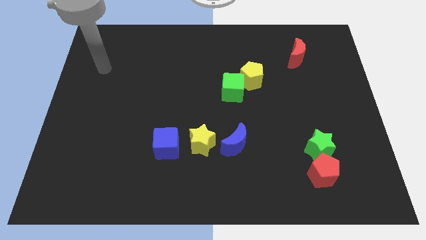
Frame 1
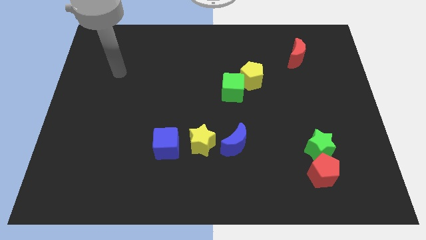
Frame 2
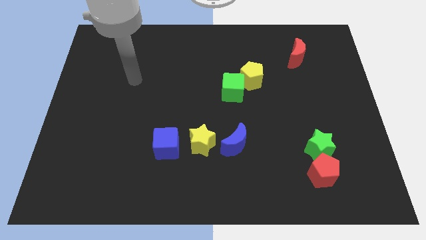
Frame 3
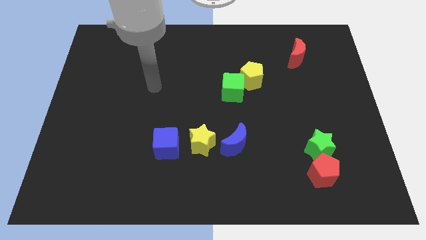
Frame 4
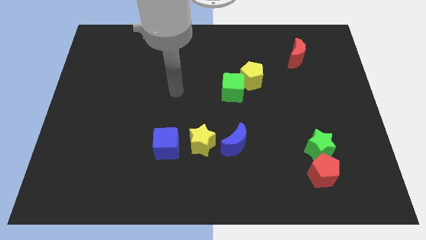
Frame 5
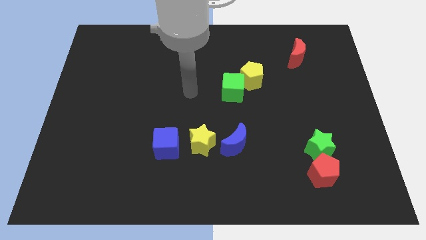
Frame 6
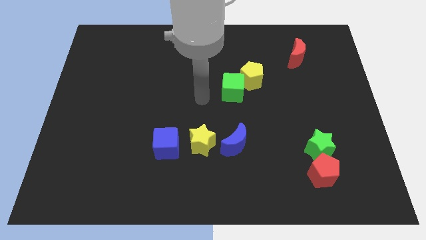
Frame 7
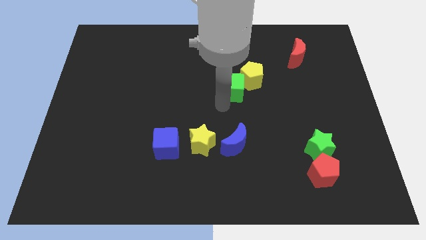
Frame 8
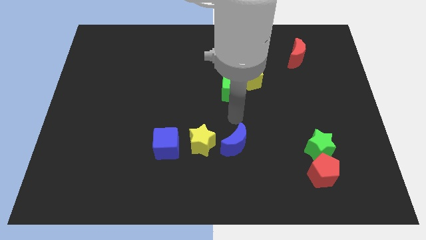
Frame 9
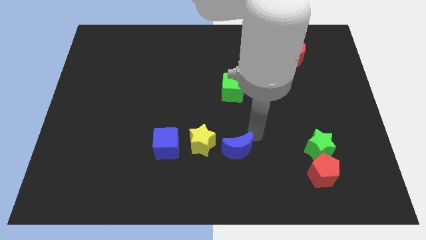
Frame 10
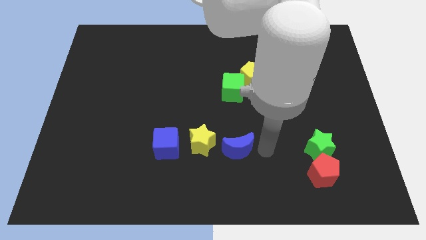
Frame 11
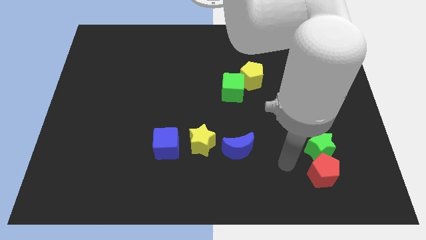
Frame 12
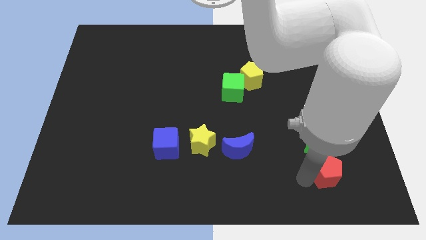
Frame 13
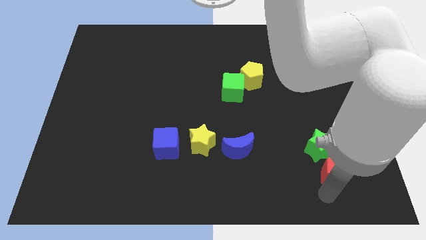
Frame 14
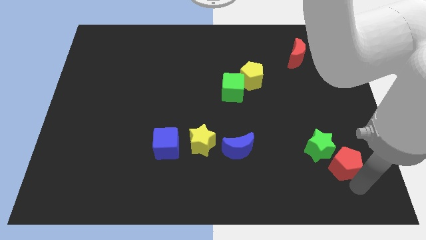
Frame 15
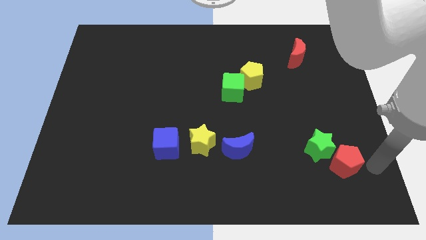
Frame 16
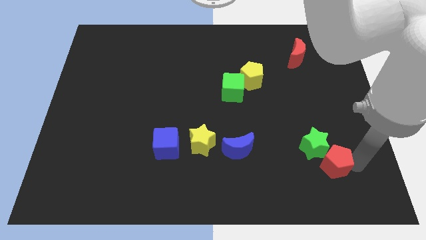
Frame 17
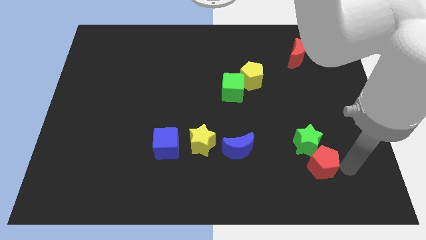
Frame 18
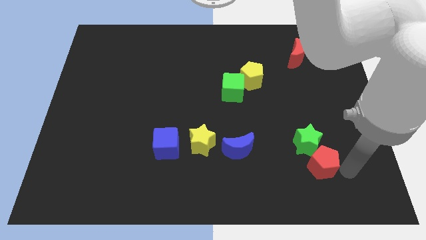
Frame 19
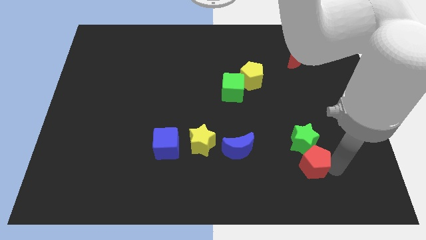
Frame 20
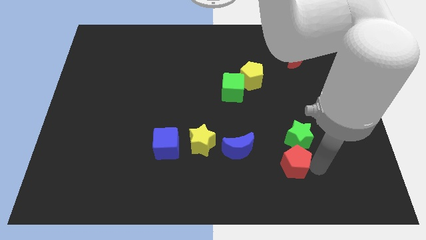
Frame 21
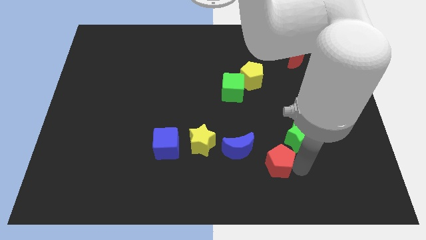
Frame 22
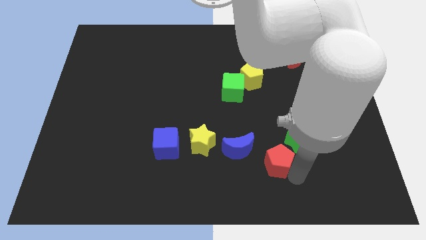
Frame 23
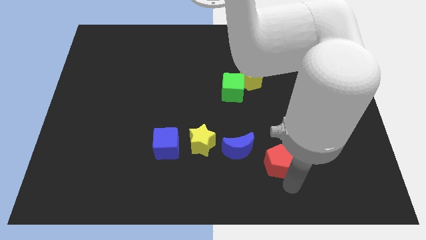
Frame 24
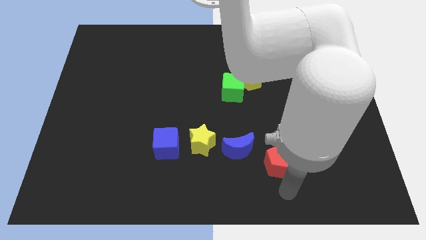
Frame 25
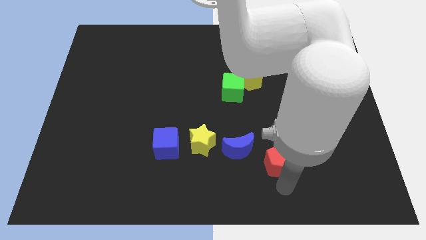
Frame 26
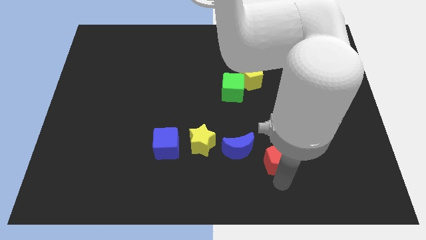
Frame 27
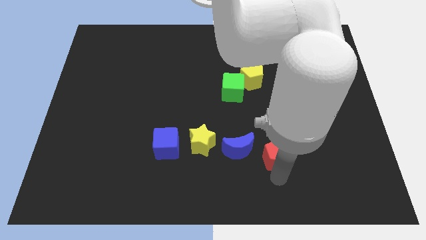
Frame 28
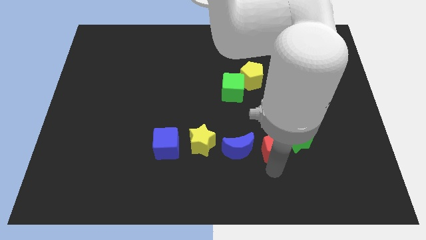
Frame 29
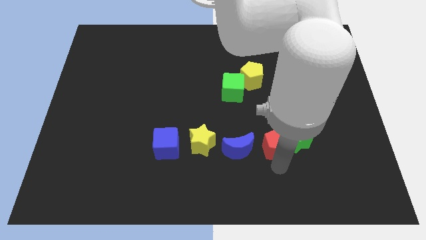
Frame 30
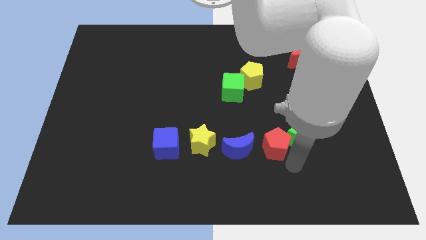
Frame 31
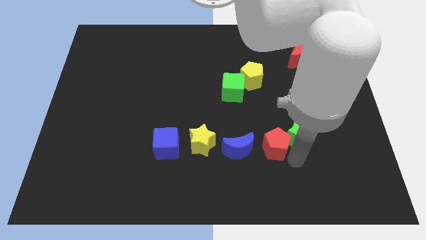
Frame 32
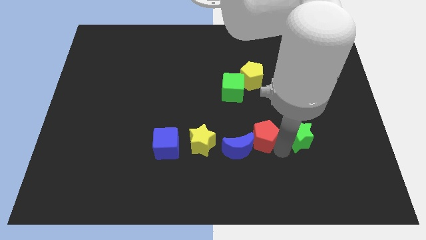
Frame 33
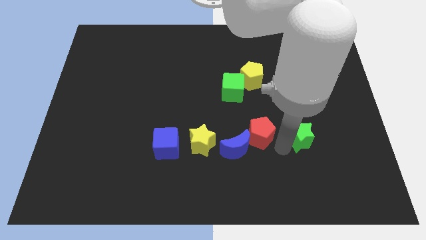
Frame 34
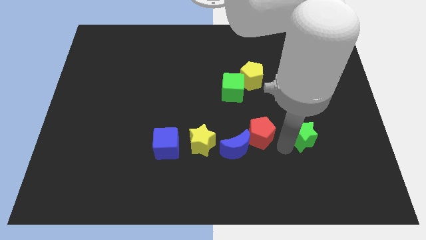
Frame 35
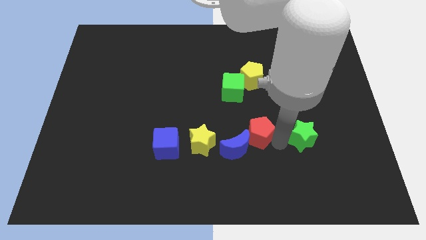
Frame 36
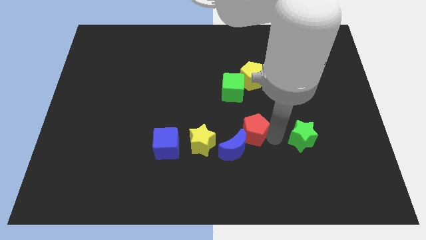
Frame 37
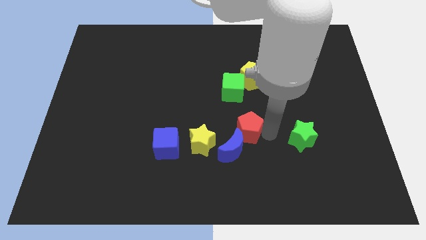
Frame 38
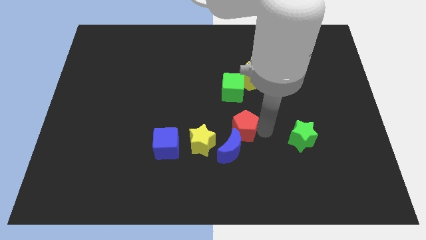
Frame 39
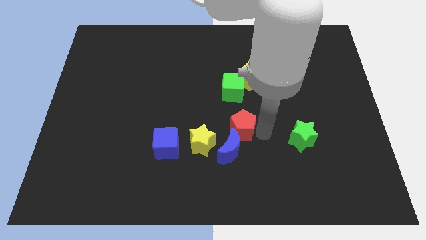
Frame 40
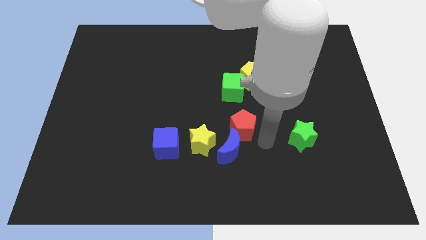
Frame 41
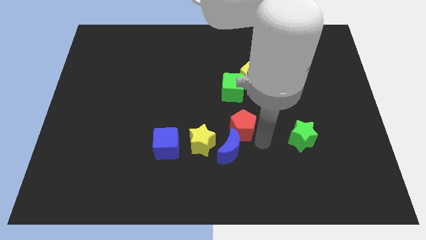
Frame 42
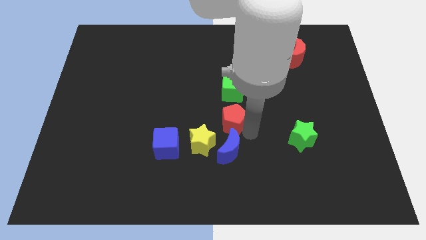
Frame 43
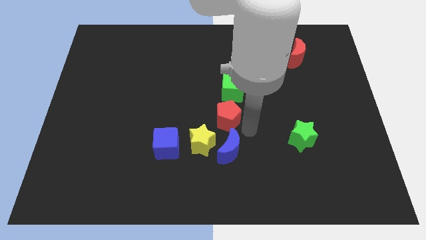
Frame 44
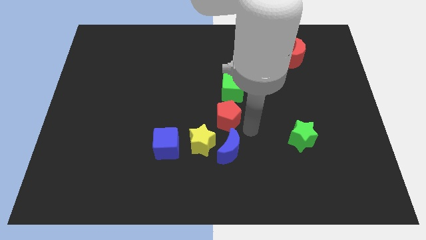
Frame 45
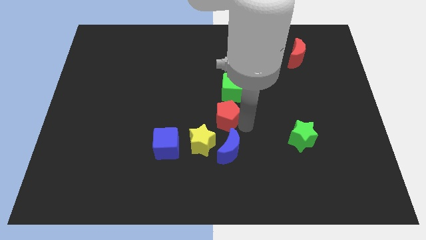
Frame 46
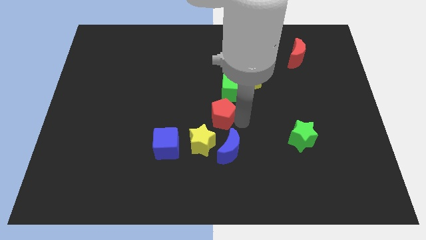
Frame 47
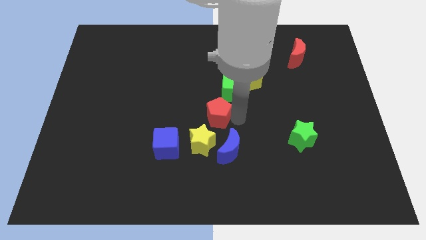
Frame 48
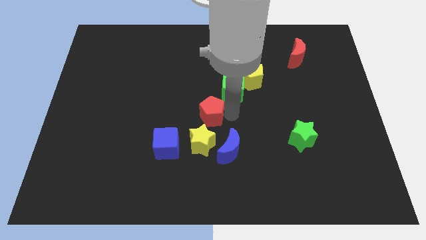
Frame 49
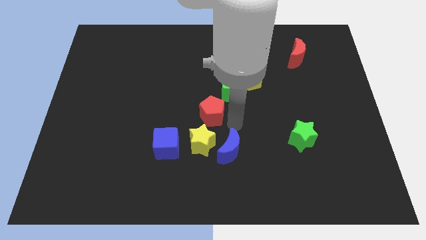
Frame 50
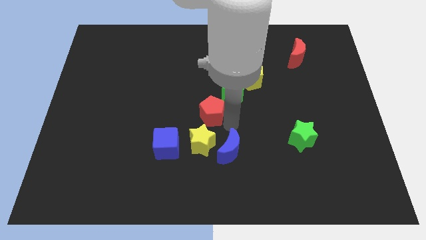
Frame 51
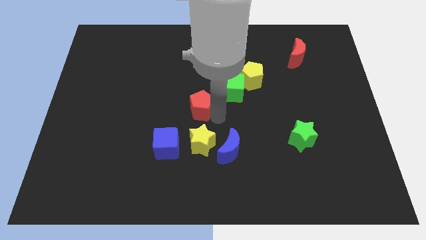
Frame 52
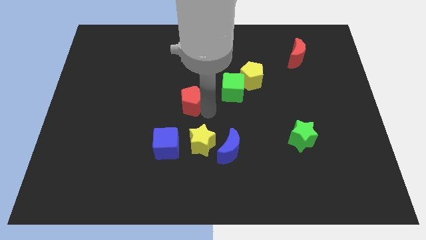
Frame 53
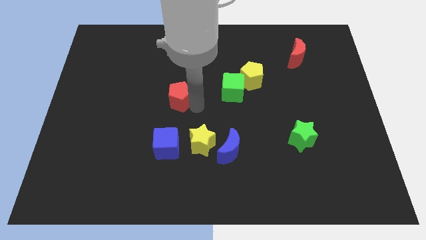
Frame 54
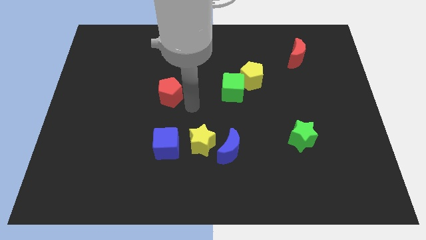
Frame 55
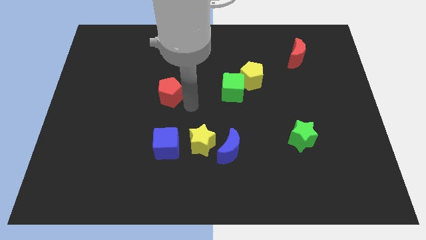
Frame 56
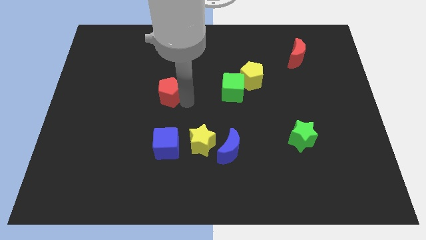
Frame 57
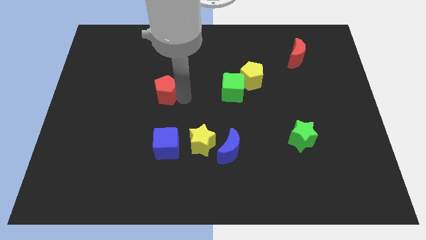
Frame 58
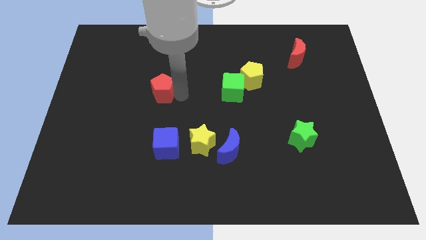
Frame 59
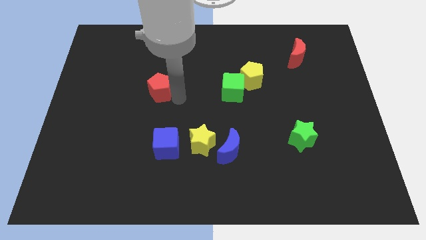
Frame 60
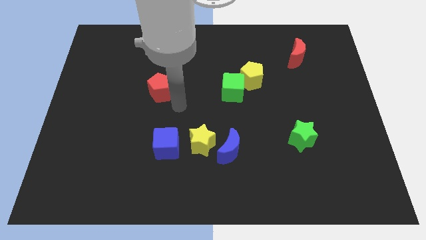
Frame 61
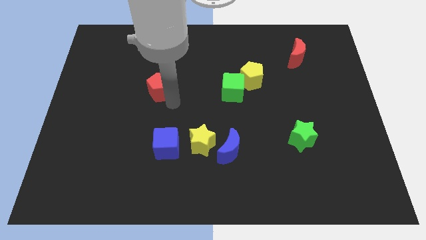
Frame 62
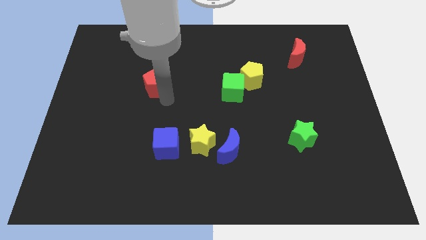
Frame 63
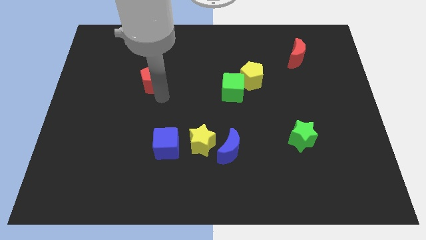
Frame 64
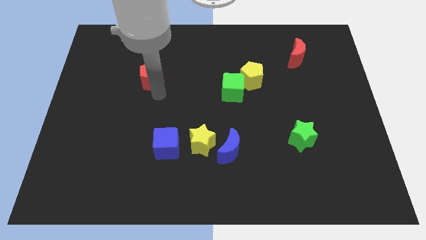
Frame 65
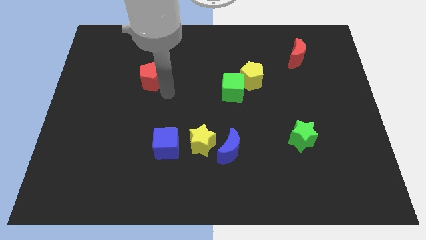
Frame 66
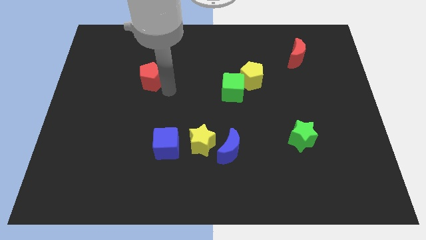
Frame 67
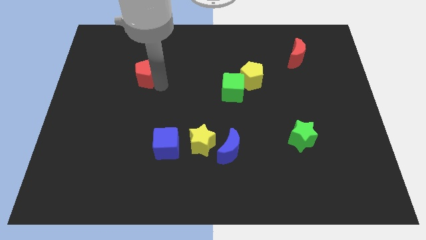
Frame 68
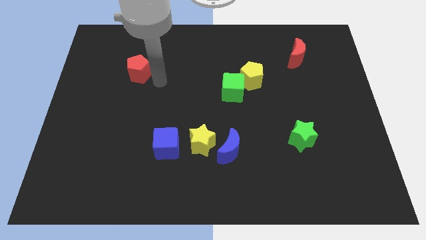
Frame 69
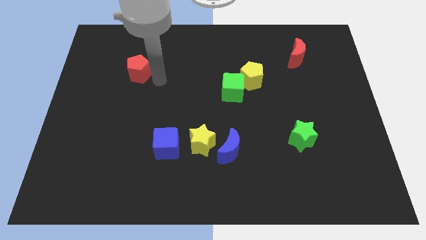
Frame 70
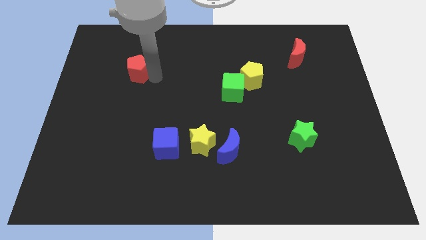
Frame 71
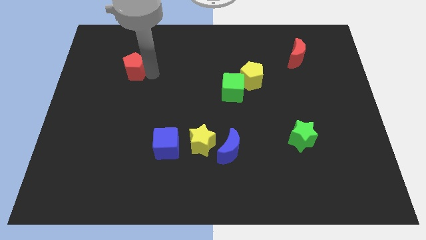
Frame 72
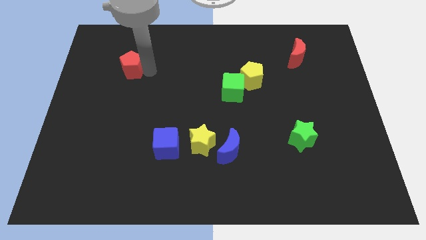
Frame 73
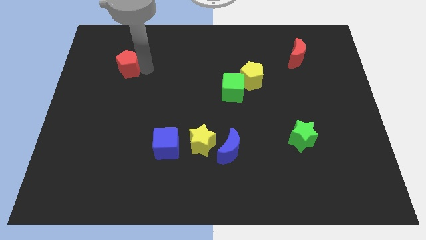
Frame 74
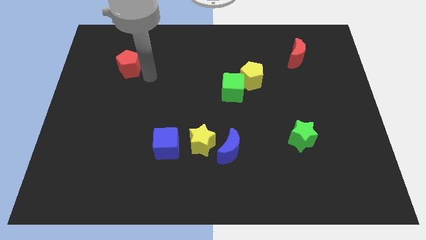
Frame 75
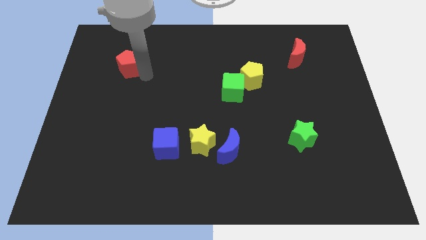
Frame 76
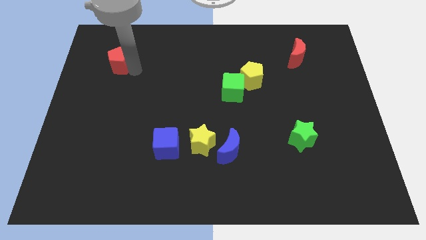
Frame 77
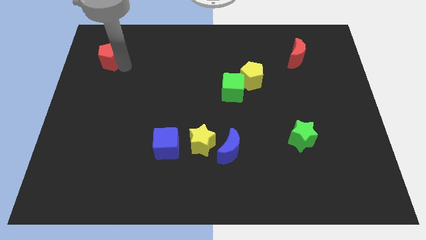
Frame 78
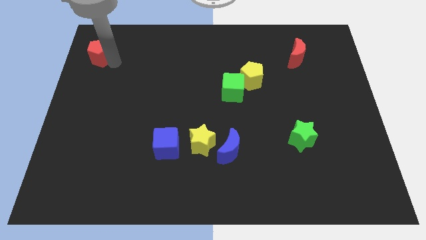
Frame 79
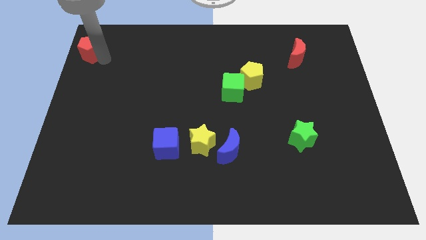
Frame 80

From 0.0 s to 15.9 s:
move the red pentagon to the upper left corner
